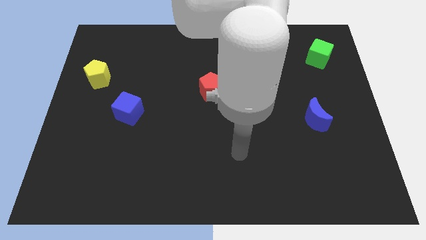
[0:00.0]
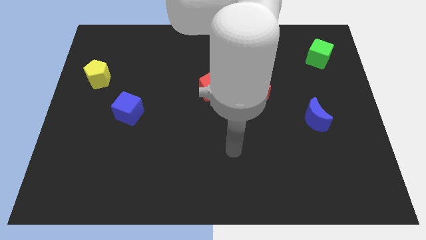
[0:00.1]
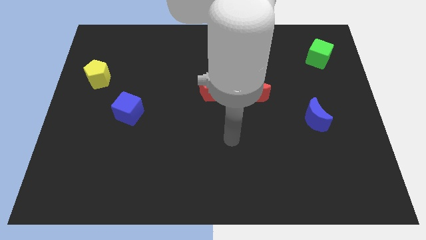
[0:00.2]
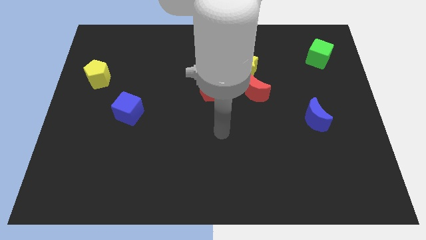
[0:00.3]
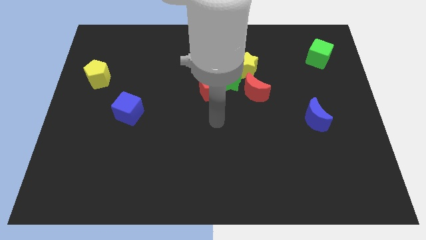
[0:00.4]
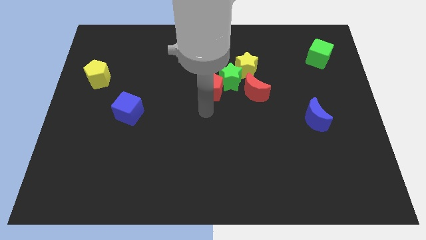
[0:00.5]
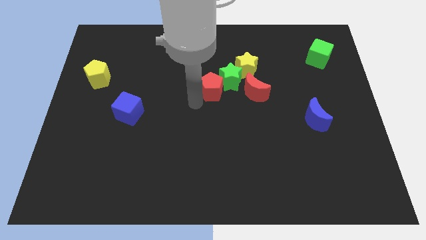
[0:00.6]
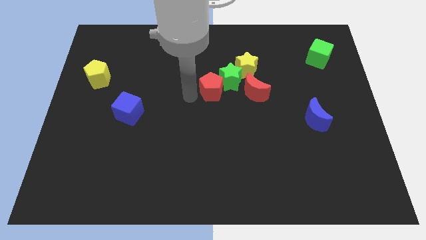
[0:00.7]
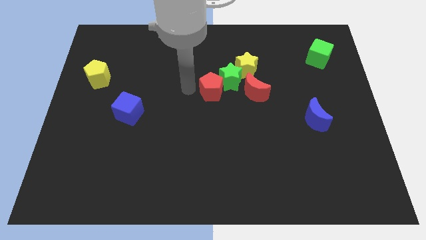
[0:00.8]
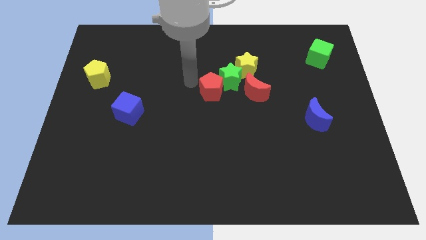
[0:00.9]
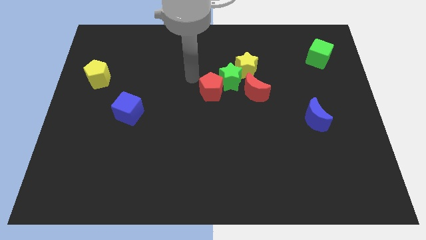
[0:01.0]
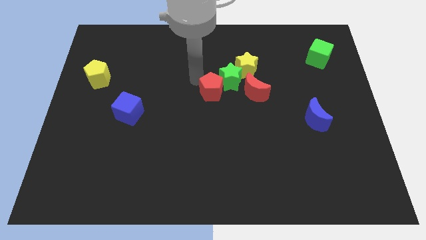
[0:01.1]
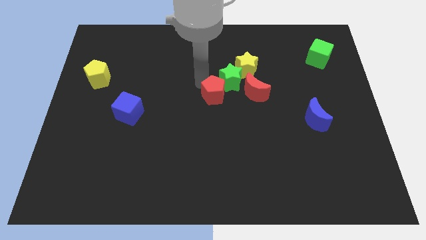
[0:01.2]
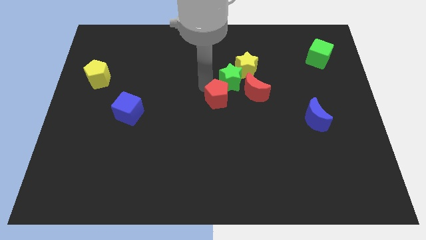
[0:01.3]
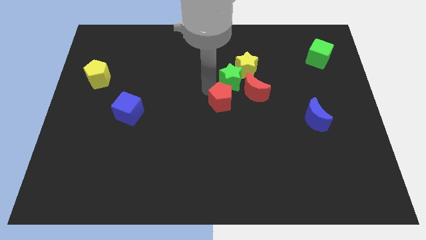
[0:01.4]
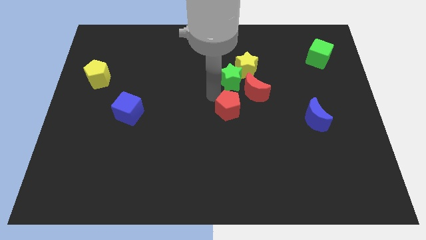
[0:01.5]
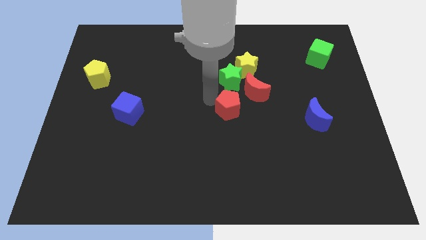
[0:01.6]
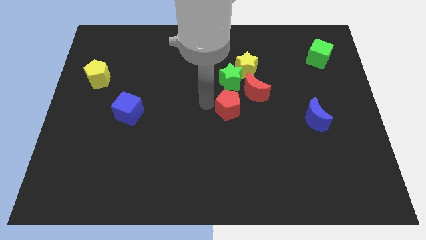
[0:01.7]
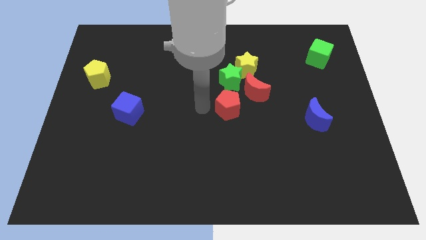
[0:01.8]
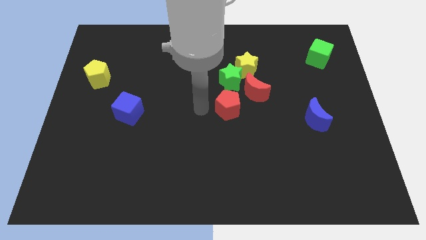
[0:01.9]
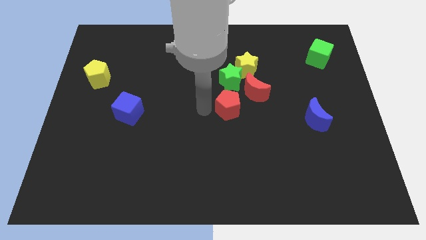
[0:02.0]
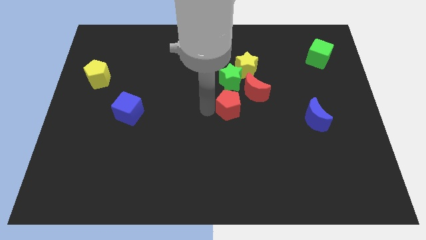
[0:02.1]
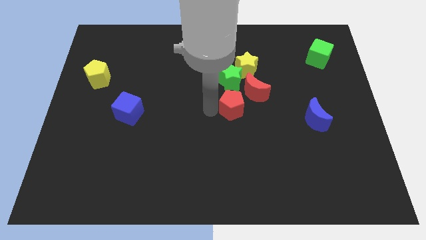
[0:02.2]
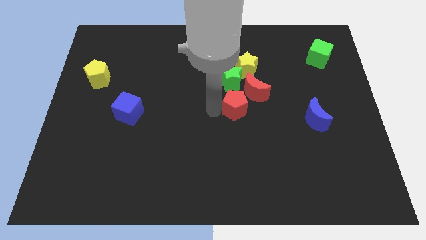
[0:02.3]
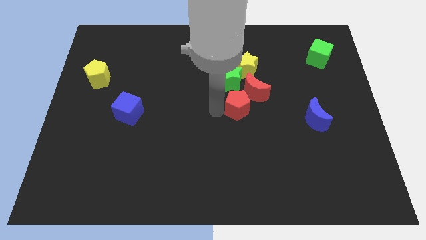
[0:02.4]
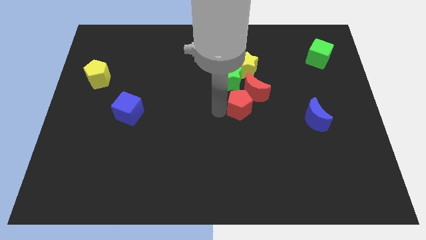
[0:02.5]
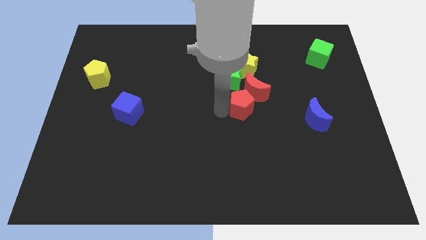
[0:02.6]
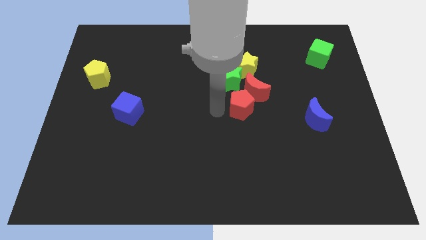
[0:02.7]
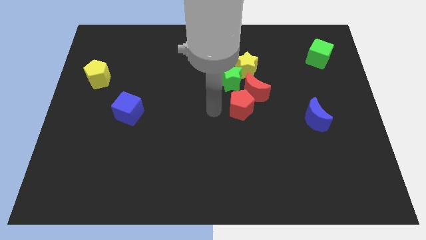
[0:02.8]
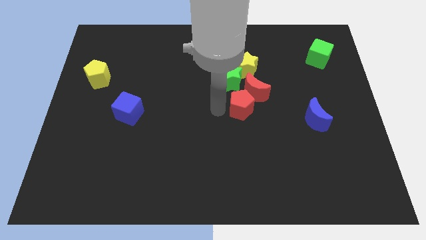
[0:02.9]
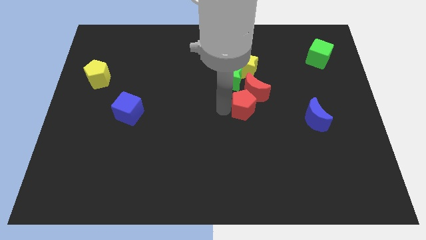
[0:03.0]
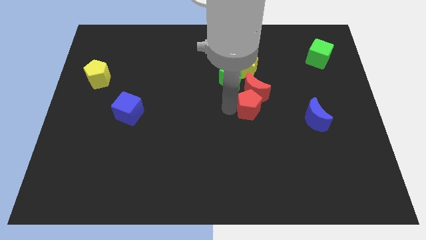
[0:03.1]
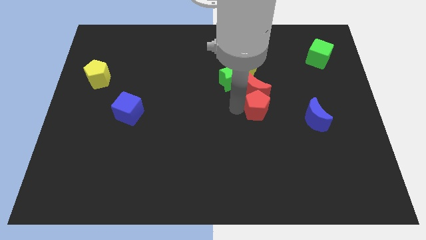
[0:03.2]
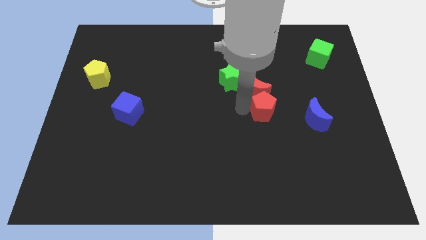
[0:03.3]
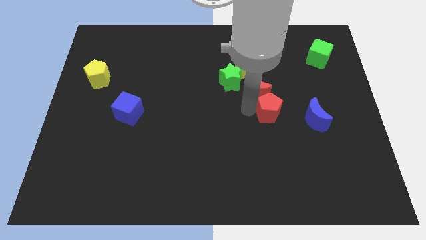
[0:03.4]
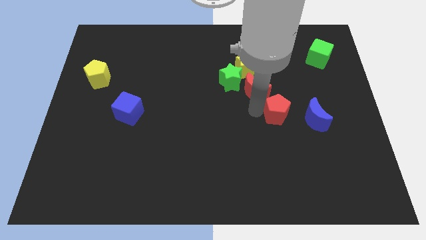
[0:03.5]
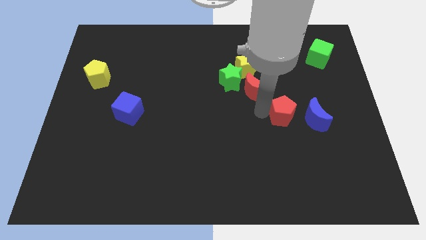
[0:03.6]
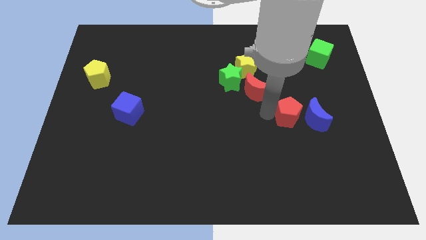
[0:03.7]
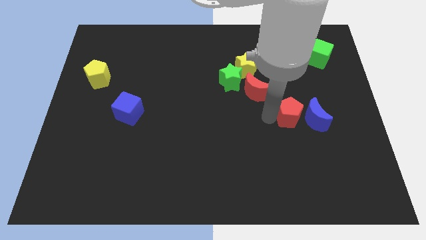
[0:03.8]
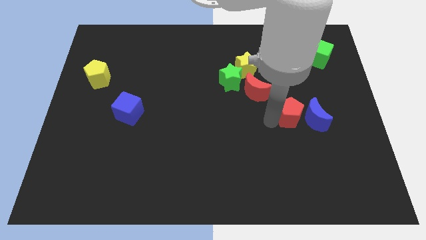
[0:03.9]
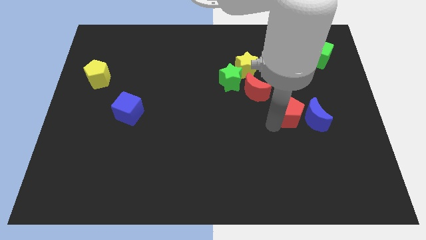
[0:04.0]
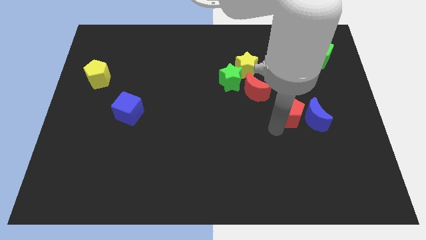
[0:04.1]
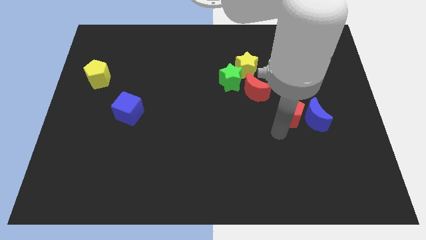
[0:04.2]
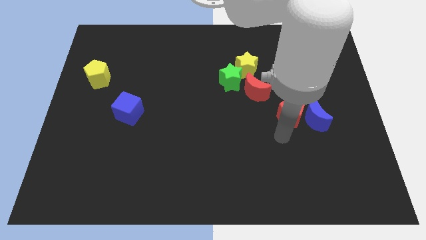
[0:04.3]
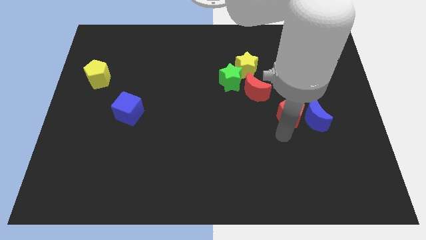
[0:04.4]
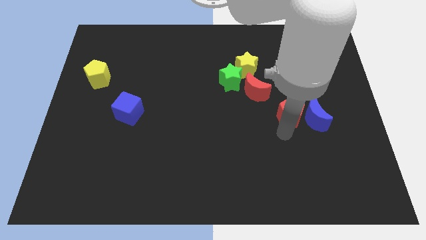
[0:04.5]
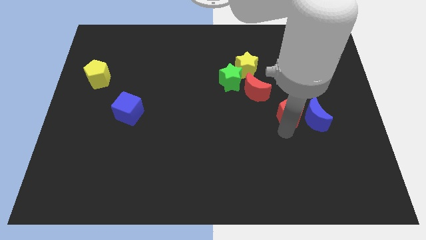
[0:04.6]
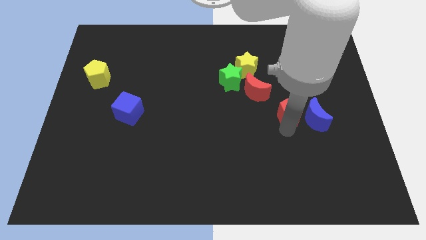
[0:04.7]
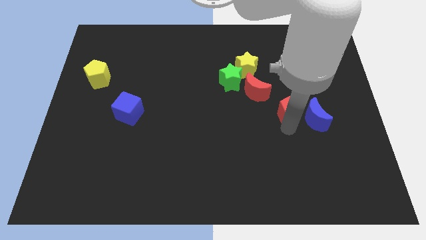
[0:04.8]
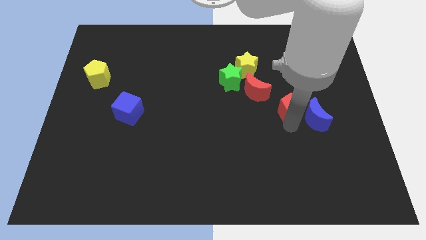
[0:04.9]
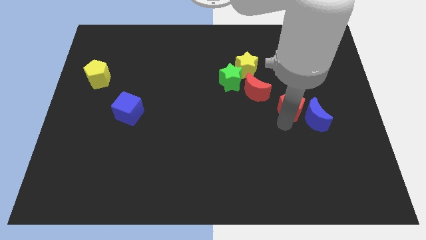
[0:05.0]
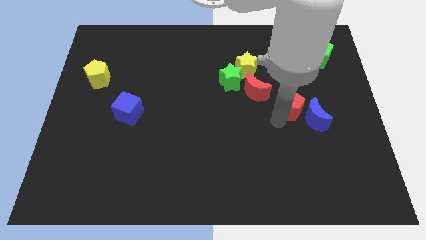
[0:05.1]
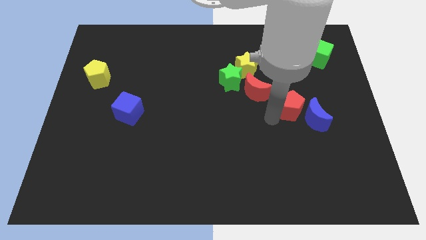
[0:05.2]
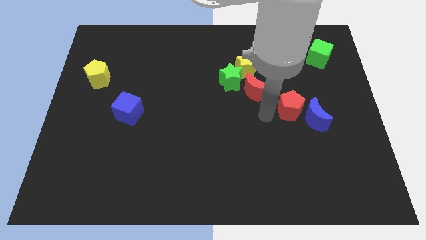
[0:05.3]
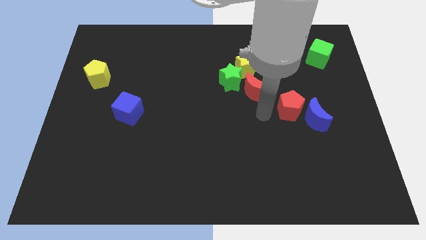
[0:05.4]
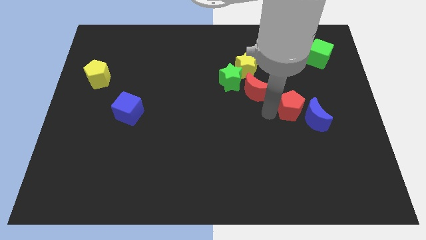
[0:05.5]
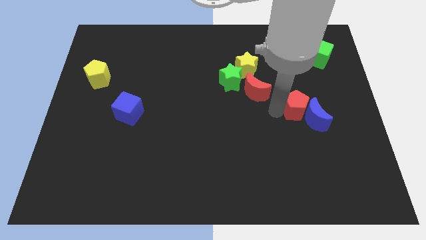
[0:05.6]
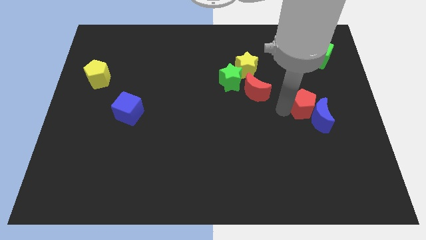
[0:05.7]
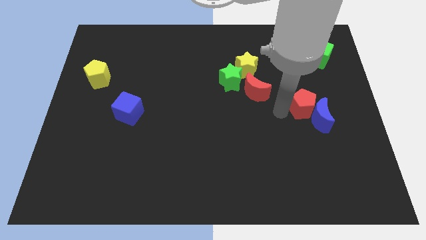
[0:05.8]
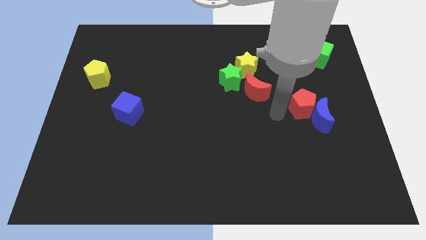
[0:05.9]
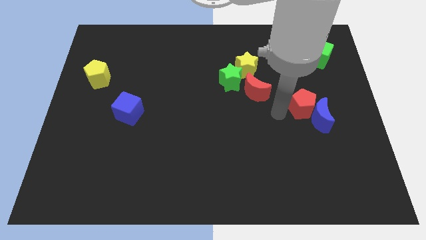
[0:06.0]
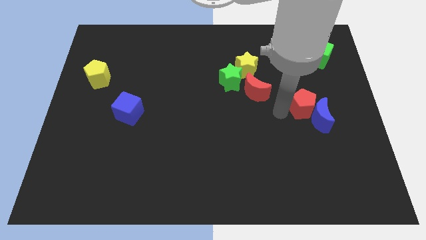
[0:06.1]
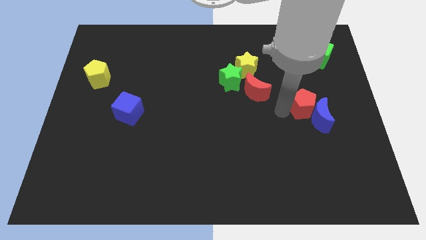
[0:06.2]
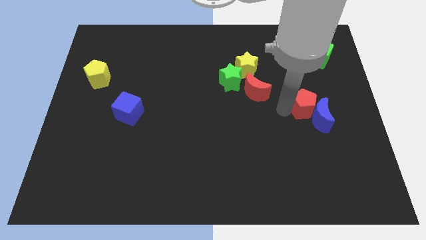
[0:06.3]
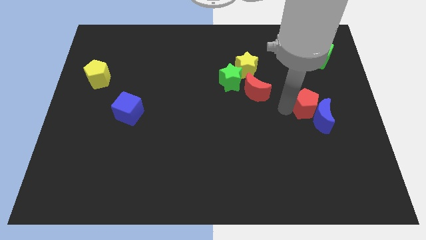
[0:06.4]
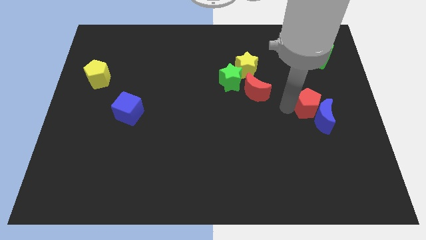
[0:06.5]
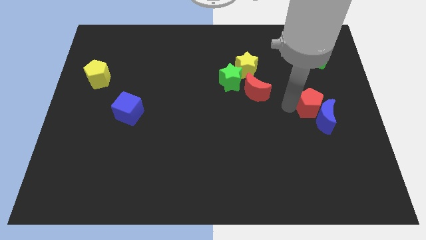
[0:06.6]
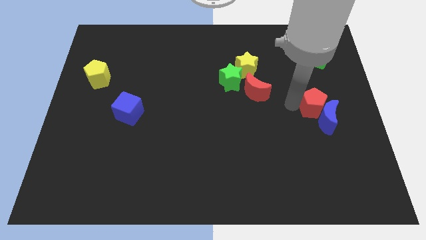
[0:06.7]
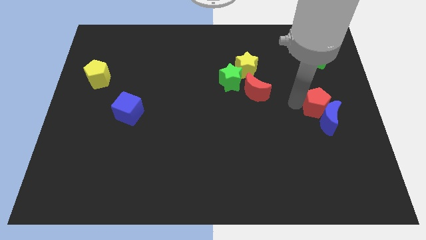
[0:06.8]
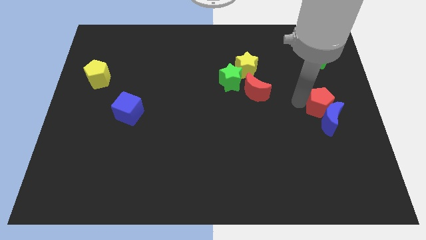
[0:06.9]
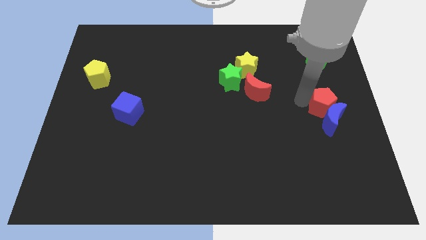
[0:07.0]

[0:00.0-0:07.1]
push the red pentagon to the right side
